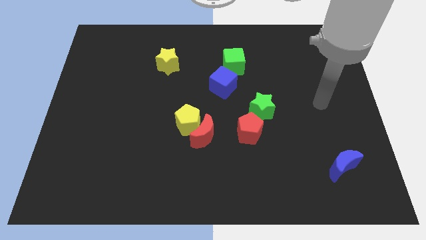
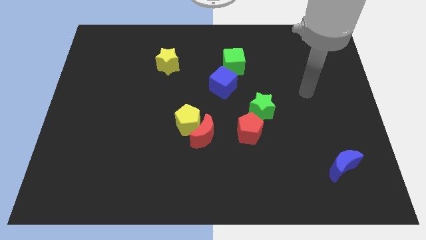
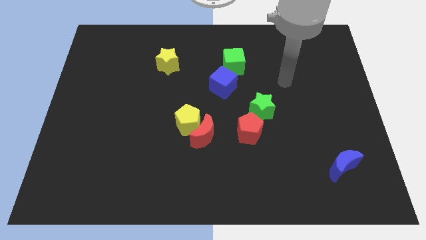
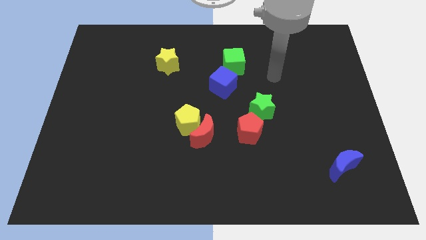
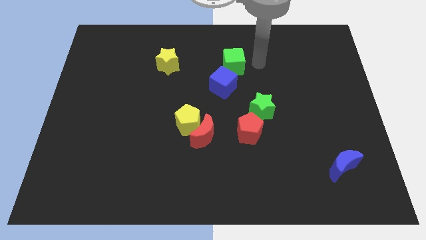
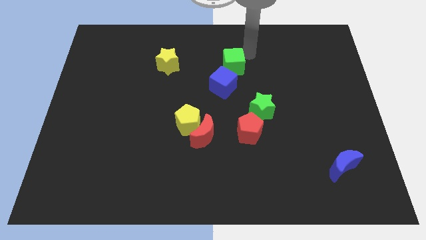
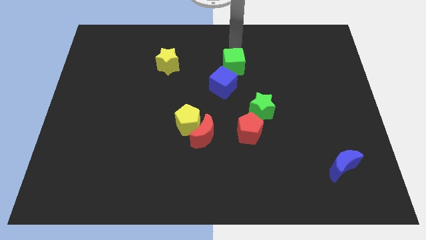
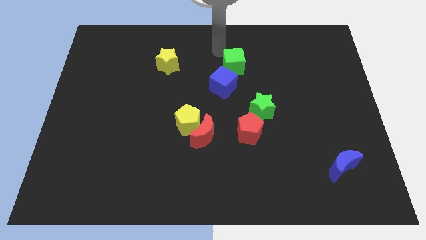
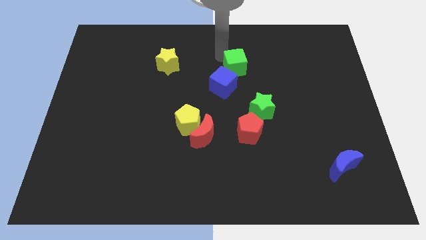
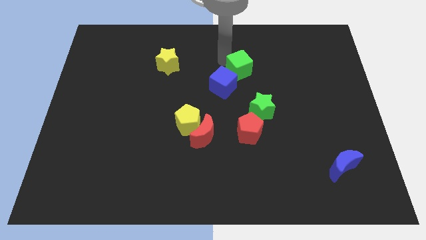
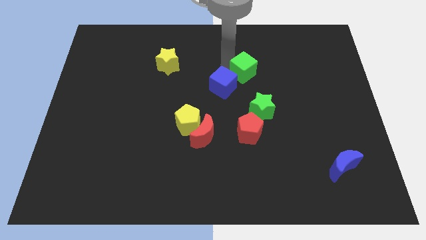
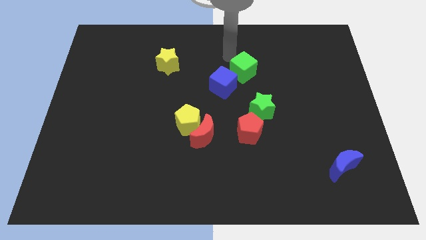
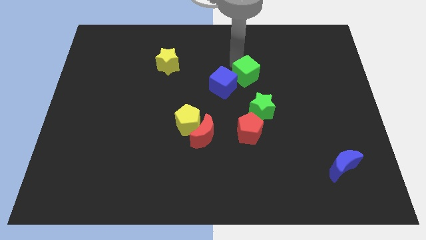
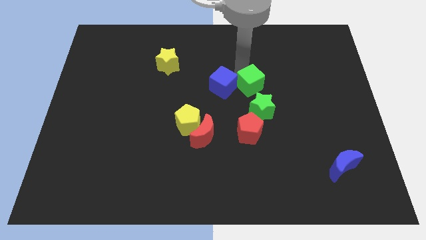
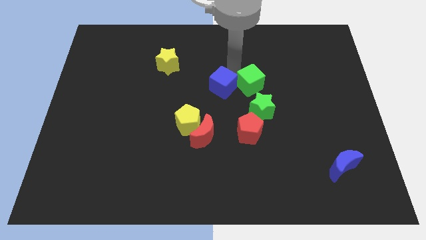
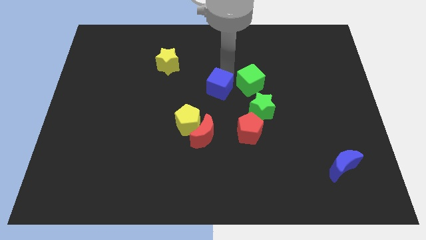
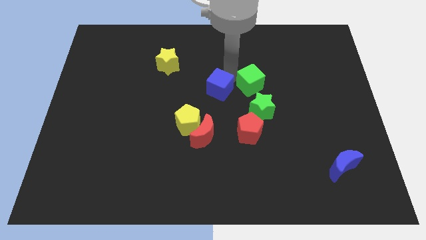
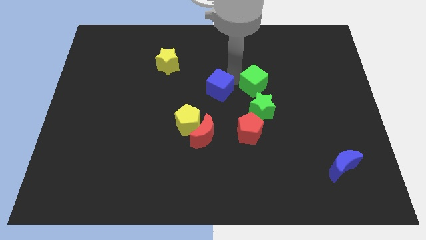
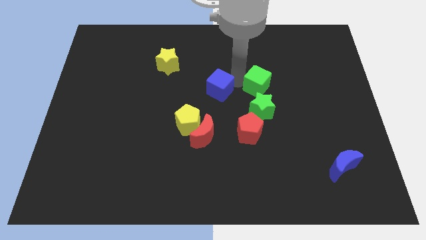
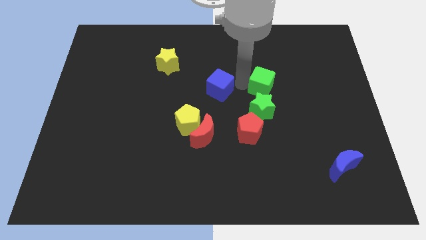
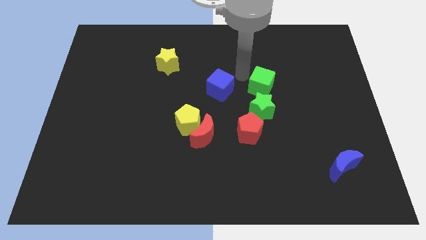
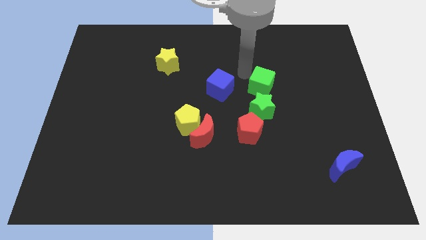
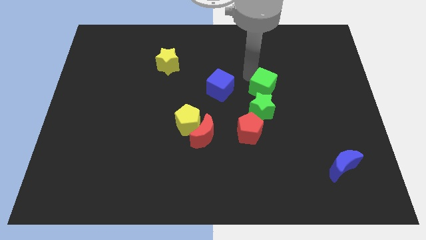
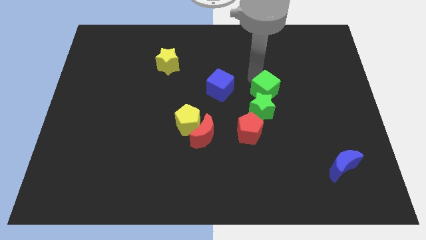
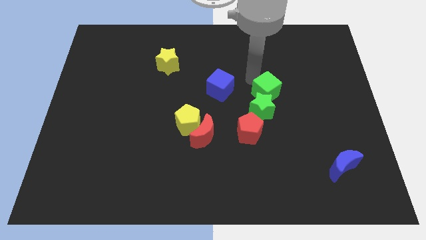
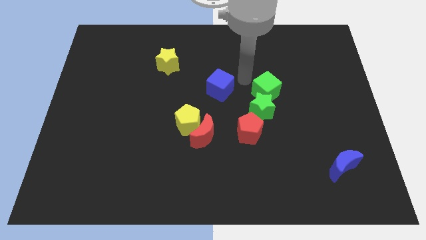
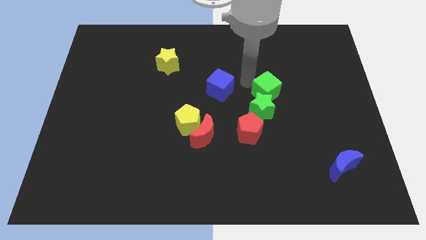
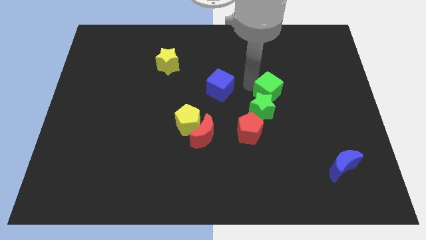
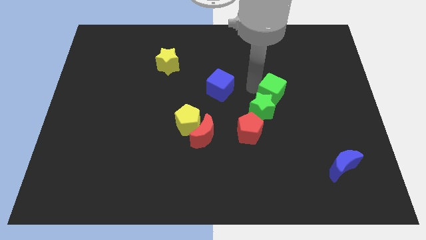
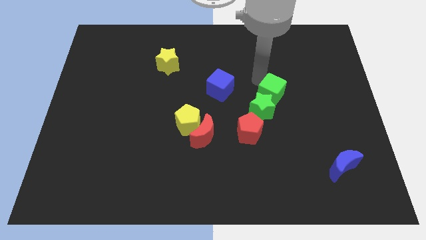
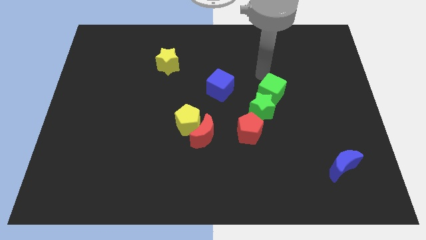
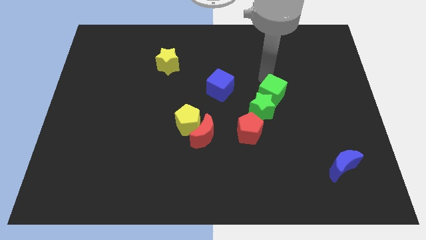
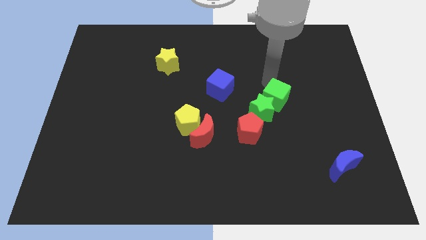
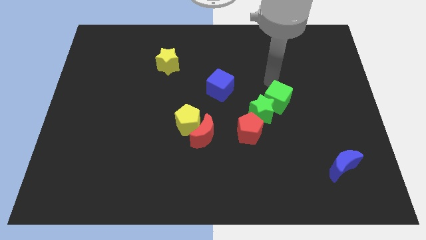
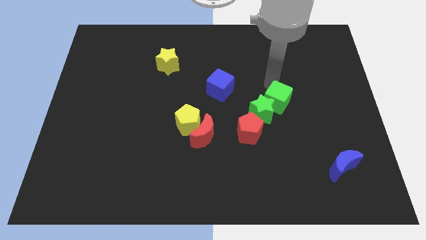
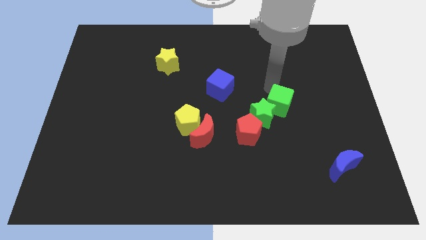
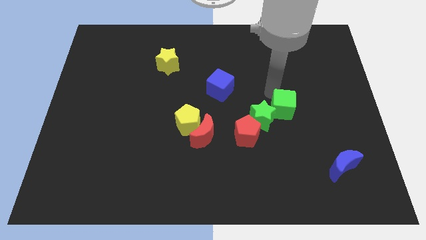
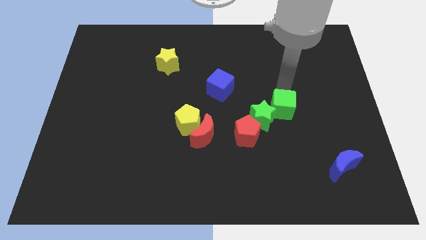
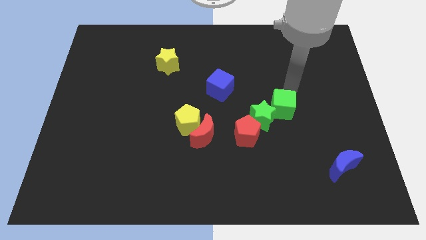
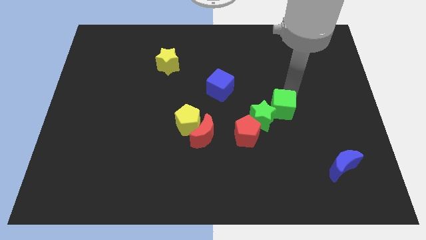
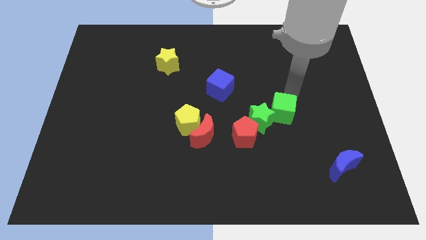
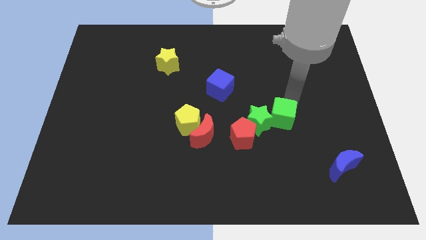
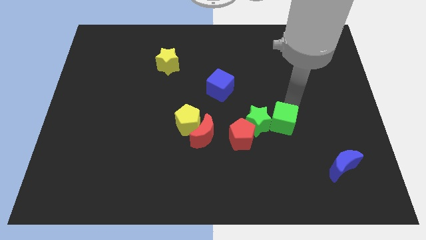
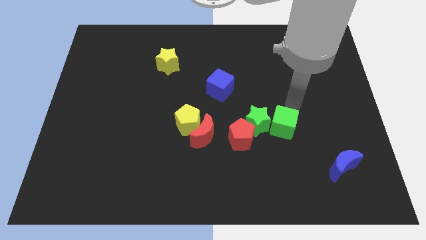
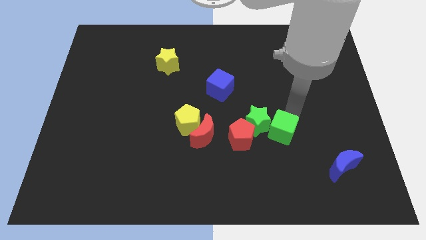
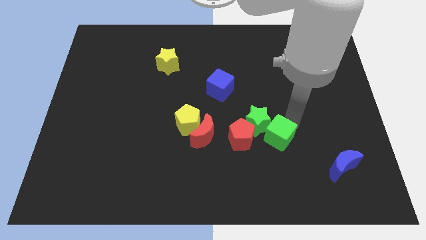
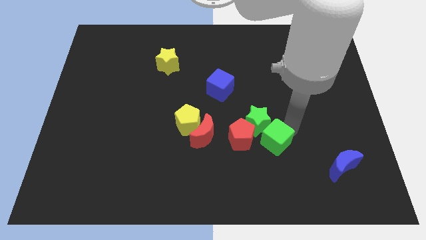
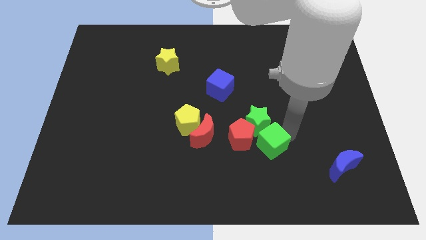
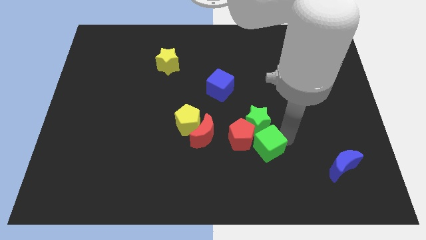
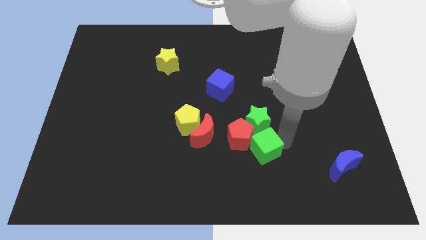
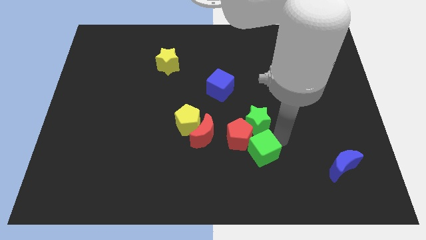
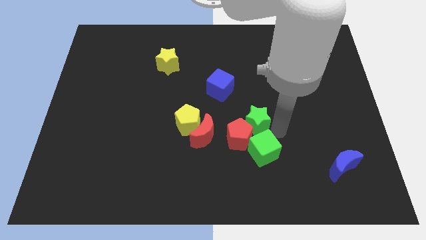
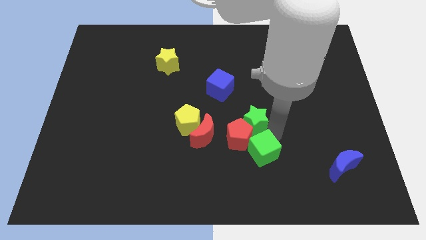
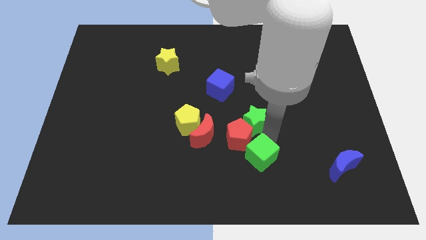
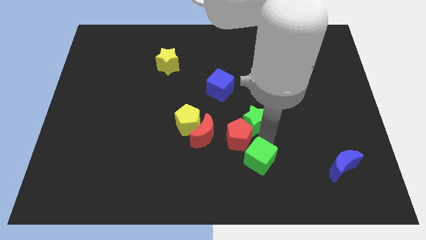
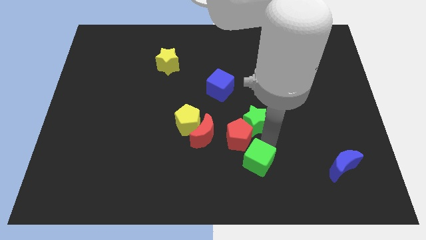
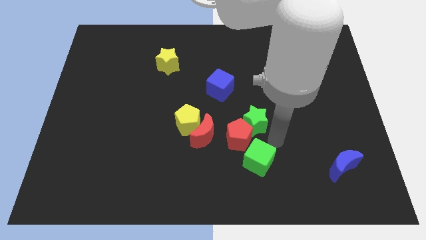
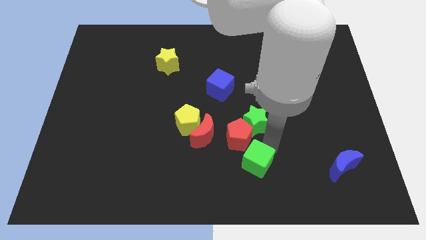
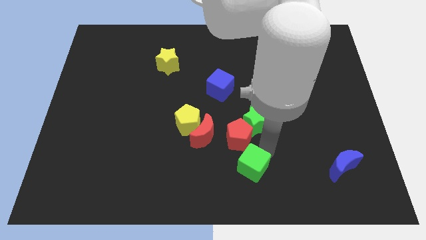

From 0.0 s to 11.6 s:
slide the green cube to the bottom

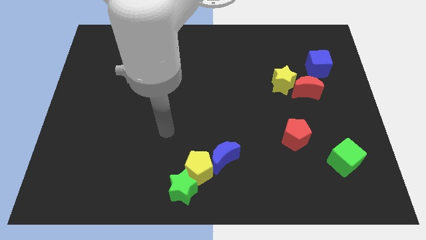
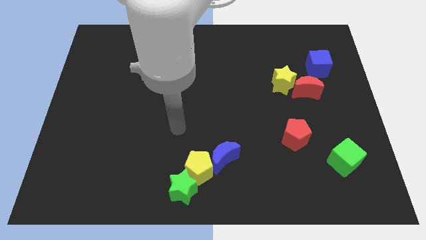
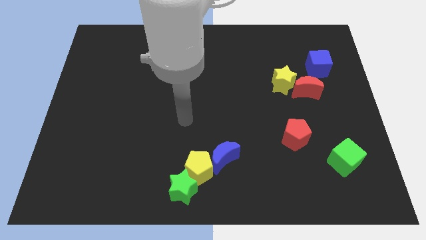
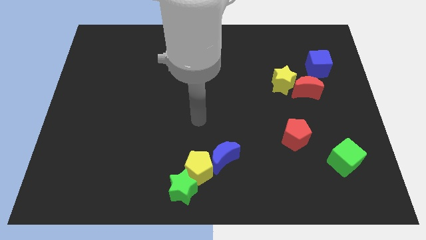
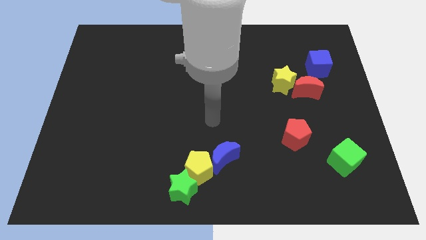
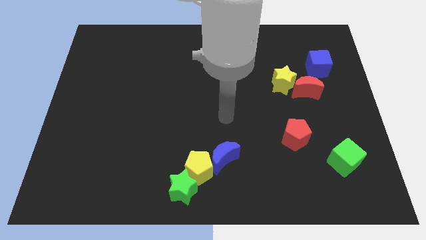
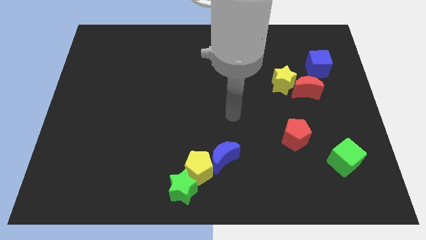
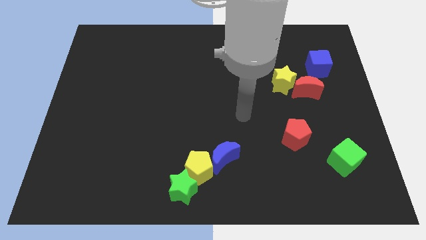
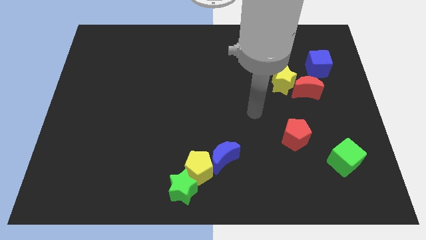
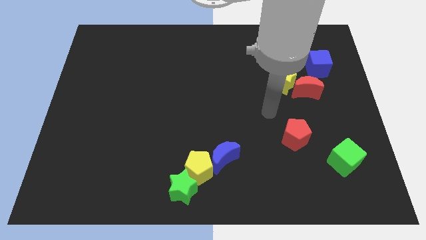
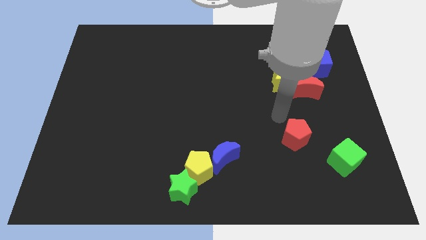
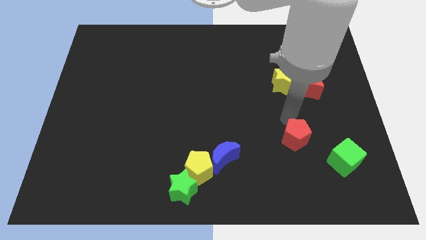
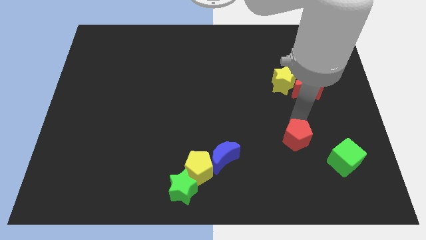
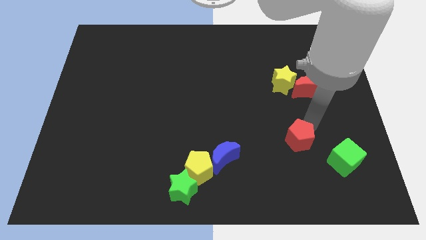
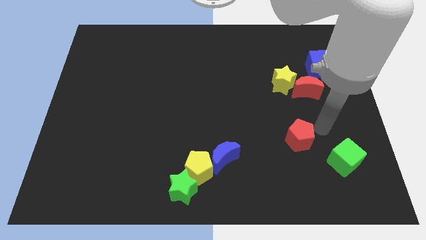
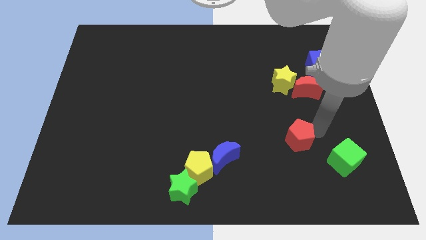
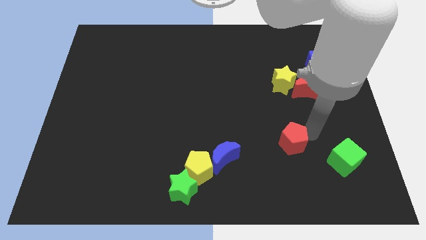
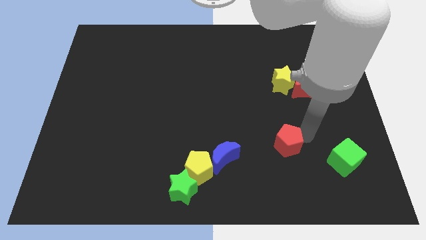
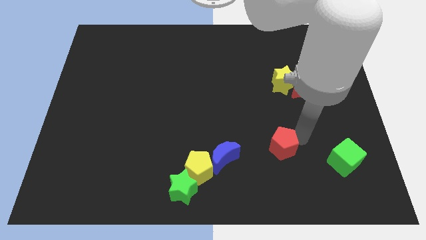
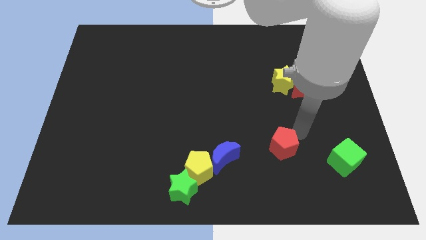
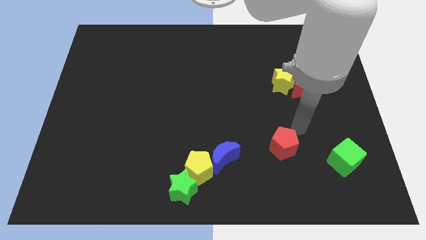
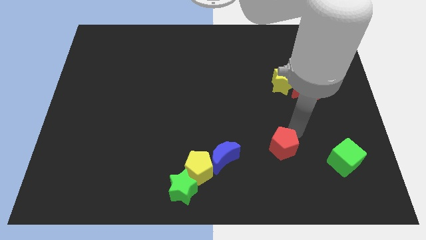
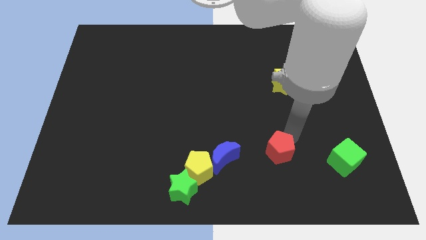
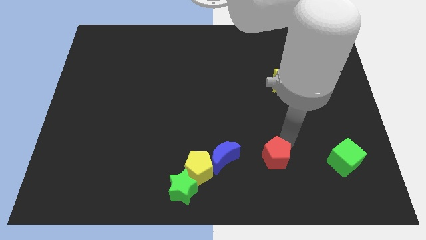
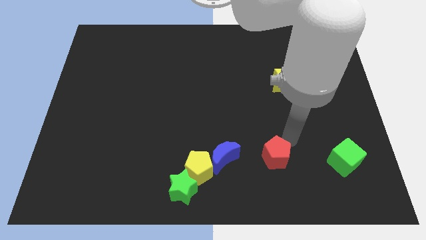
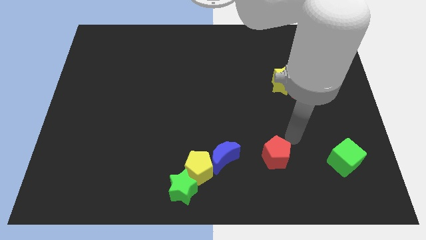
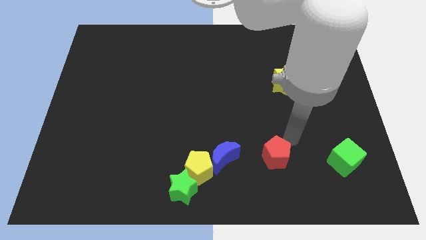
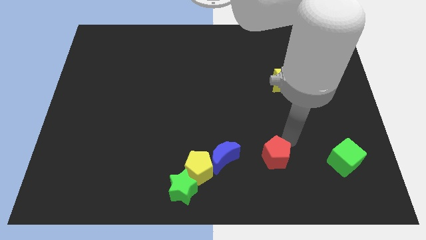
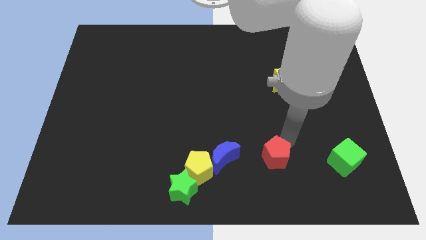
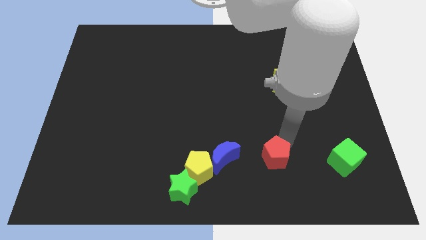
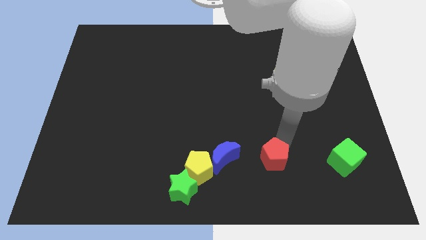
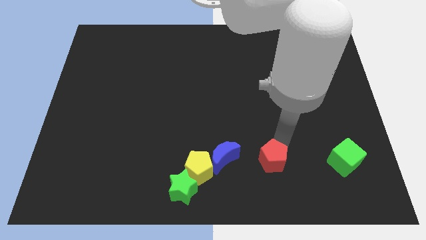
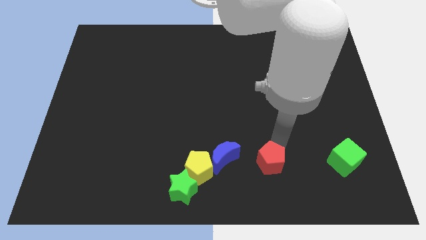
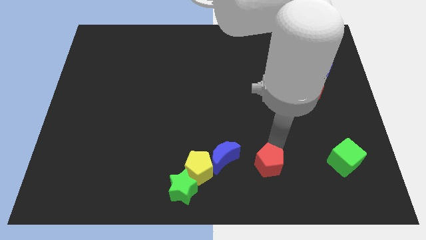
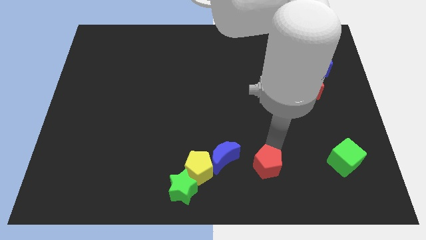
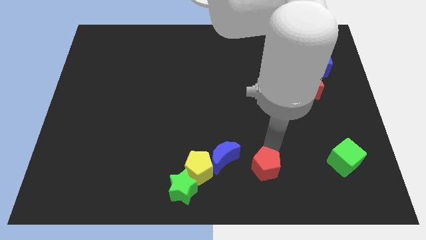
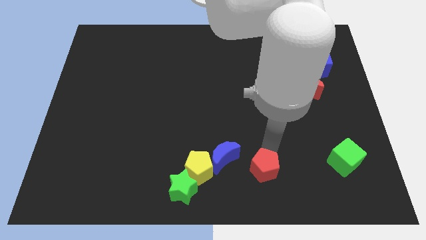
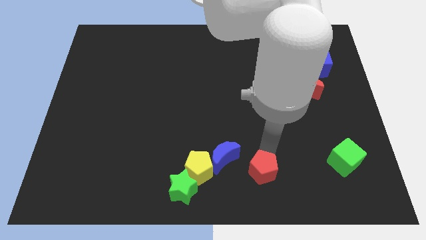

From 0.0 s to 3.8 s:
push the red pentagon to the bottom
